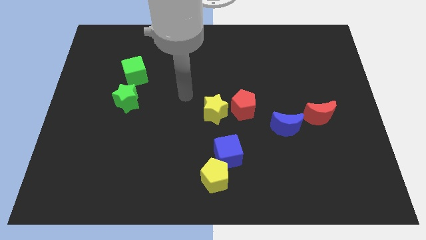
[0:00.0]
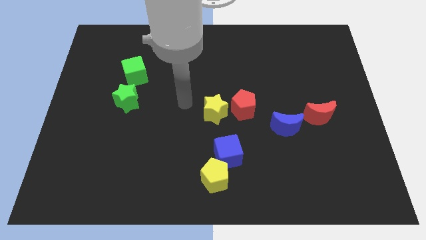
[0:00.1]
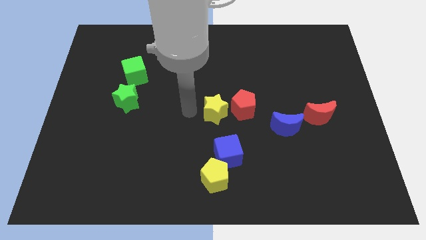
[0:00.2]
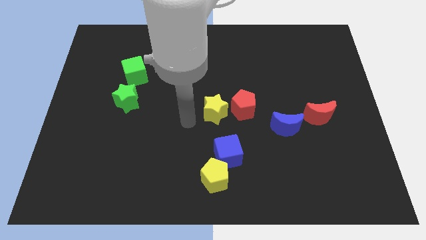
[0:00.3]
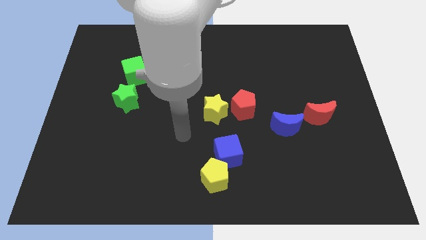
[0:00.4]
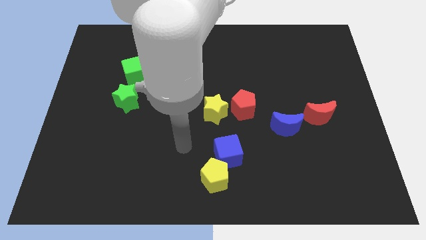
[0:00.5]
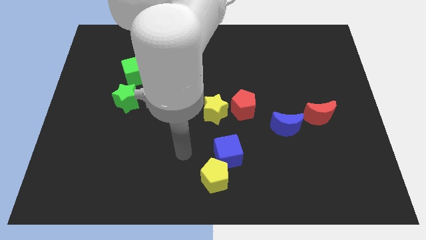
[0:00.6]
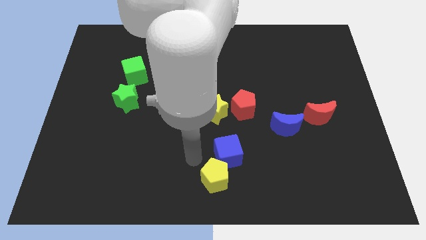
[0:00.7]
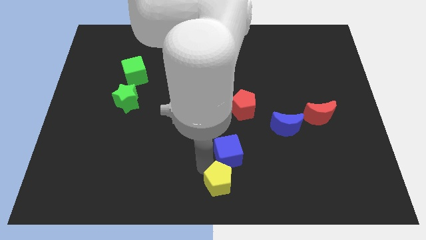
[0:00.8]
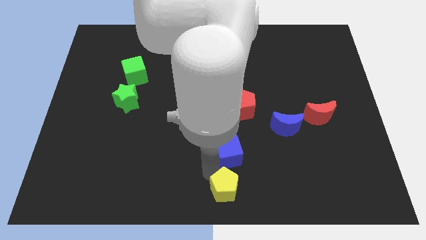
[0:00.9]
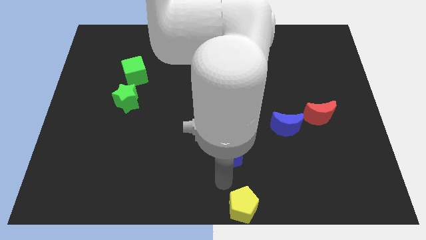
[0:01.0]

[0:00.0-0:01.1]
pull the blue cube apart from the yellow pentagon

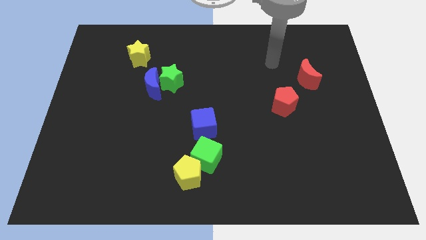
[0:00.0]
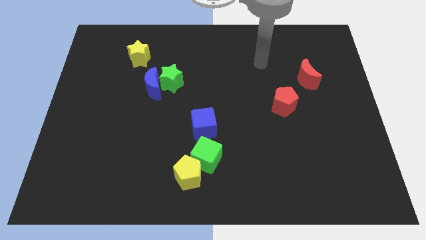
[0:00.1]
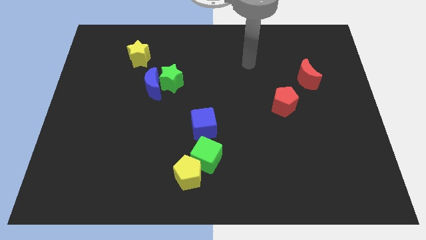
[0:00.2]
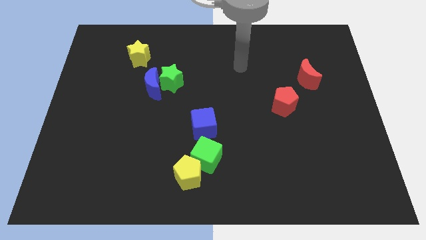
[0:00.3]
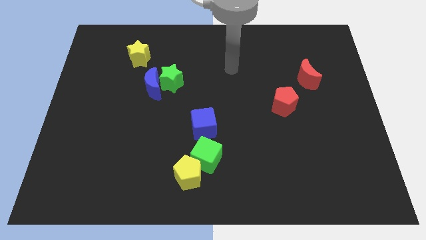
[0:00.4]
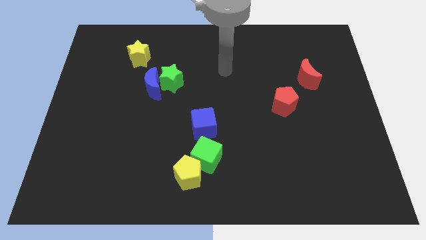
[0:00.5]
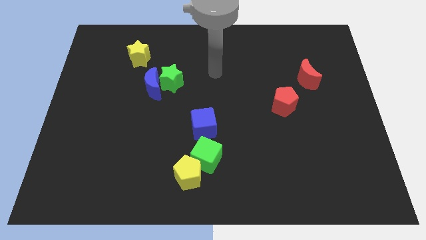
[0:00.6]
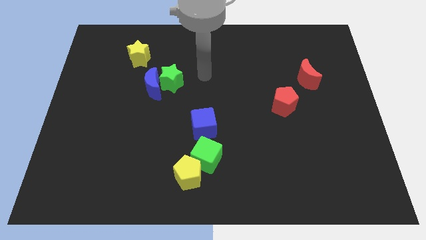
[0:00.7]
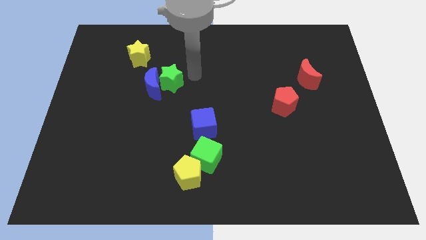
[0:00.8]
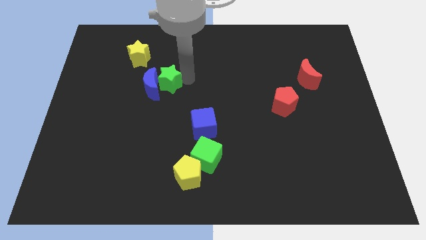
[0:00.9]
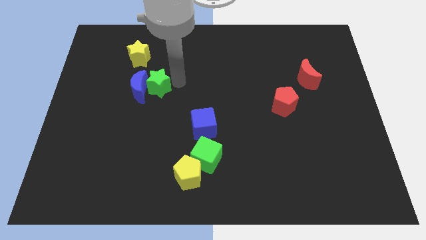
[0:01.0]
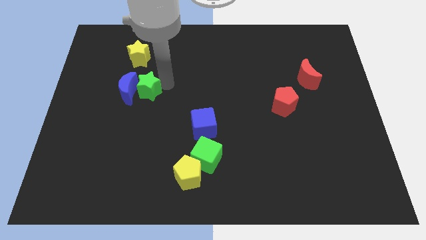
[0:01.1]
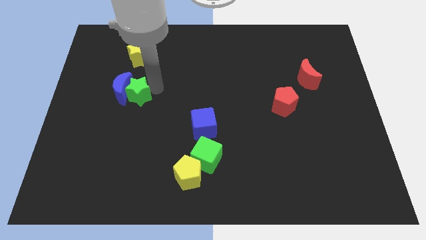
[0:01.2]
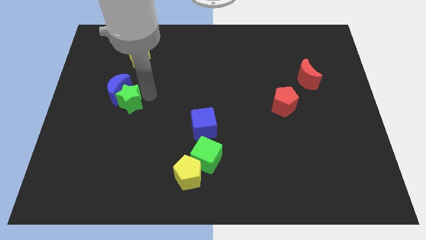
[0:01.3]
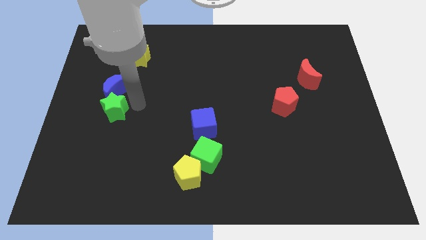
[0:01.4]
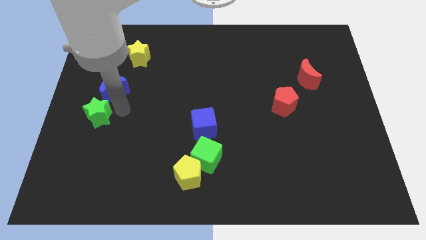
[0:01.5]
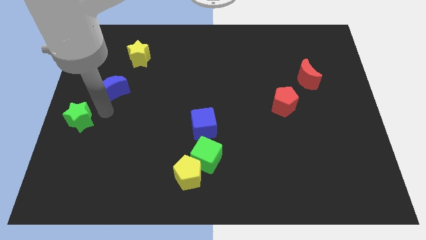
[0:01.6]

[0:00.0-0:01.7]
pull the blue moon apart from the green star

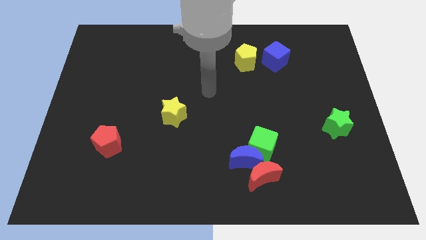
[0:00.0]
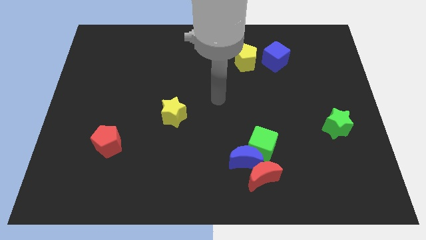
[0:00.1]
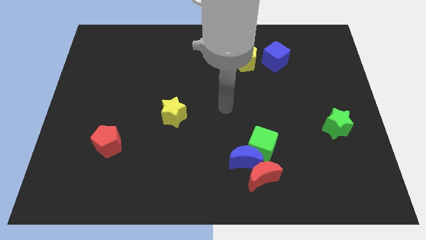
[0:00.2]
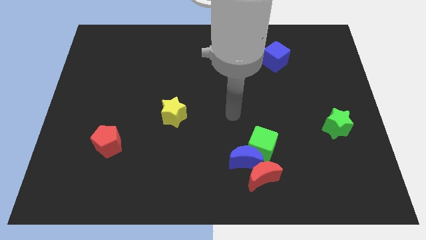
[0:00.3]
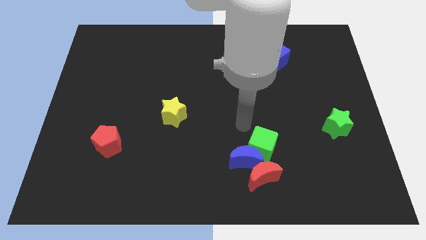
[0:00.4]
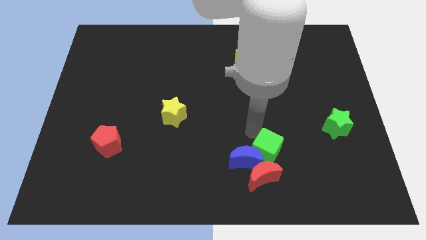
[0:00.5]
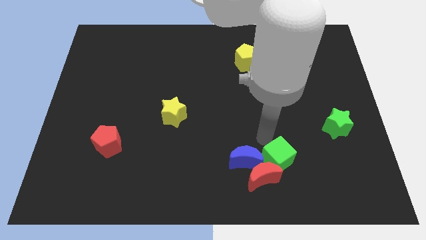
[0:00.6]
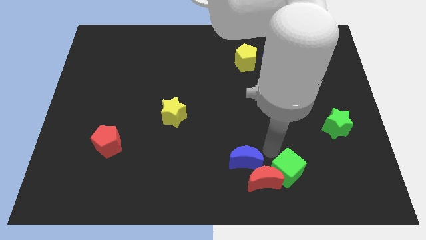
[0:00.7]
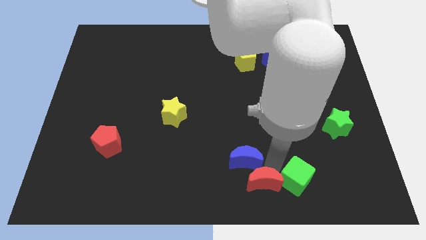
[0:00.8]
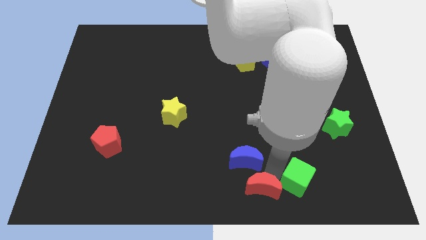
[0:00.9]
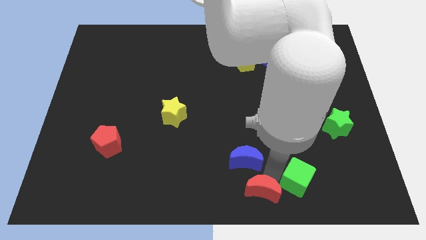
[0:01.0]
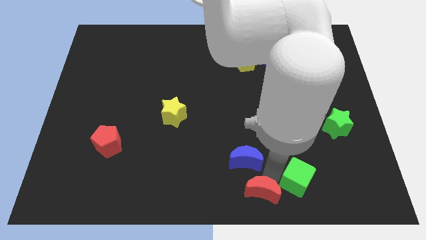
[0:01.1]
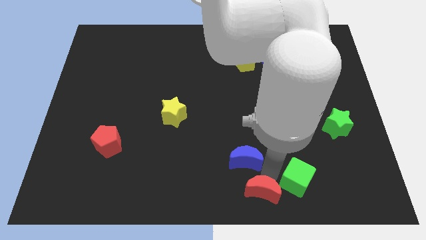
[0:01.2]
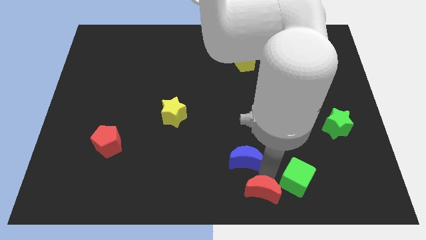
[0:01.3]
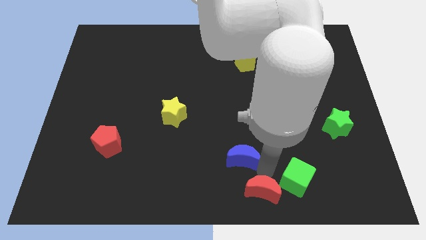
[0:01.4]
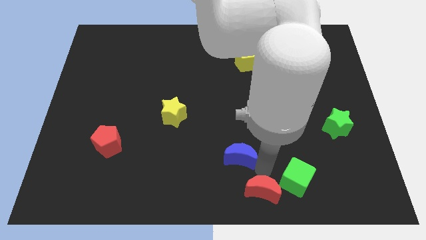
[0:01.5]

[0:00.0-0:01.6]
pull the blue moon apart from the green cube and red moon

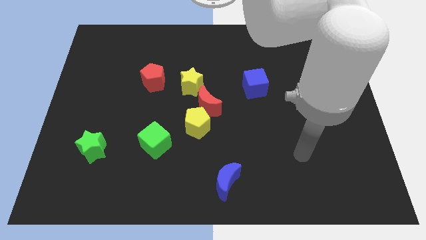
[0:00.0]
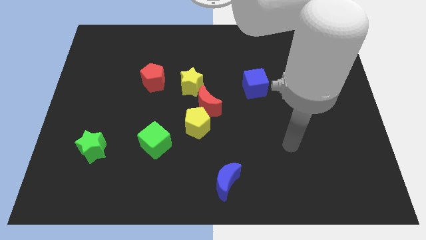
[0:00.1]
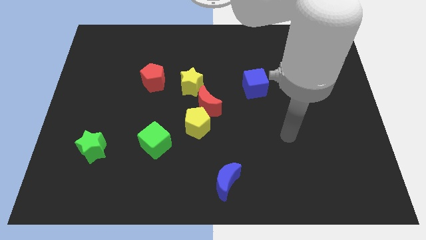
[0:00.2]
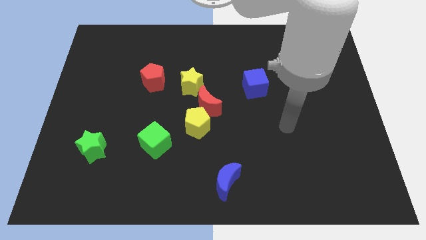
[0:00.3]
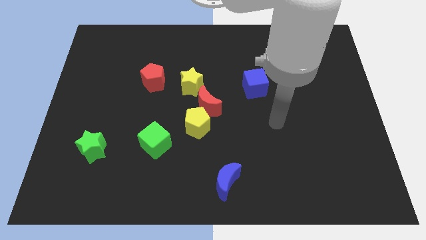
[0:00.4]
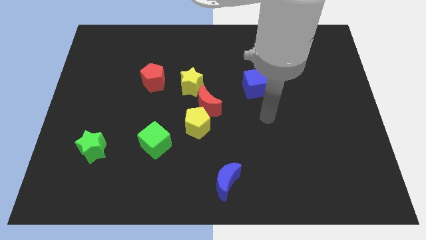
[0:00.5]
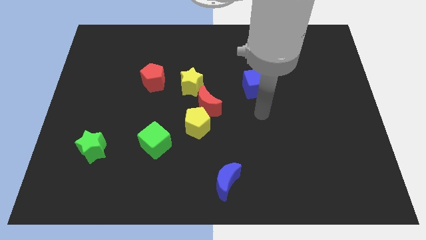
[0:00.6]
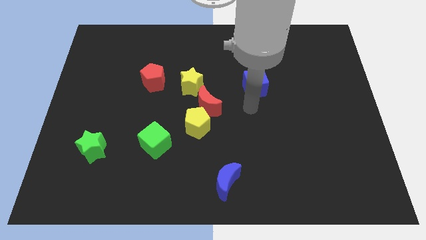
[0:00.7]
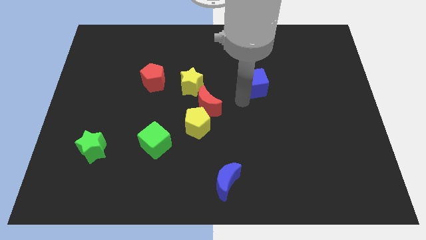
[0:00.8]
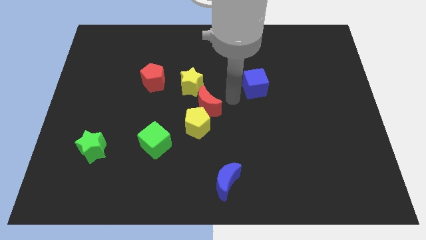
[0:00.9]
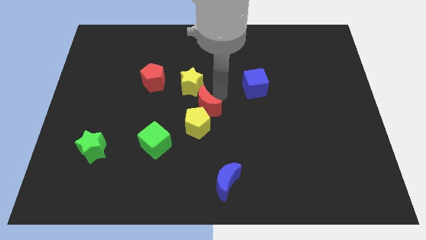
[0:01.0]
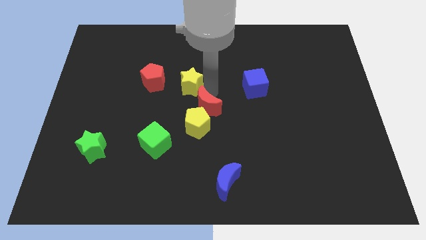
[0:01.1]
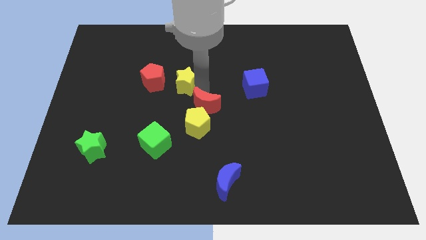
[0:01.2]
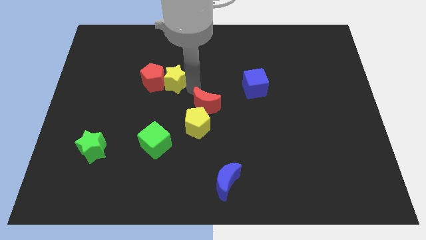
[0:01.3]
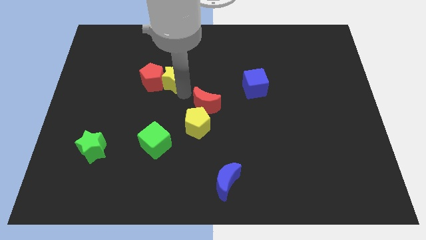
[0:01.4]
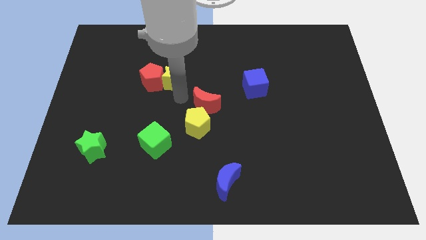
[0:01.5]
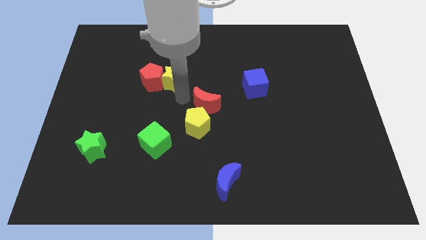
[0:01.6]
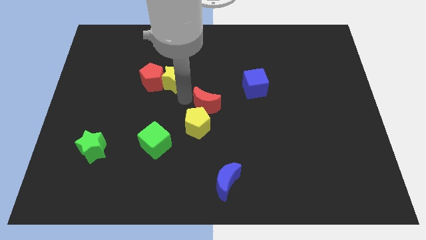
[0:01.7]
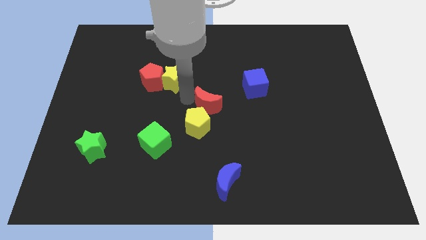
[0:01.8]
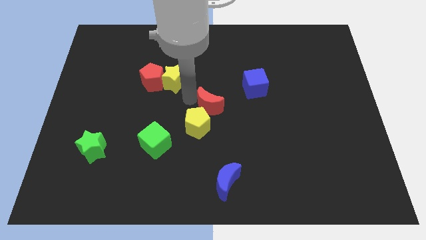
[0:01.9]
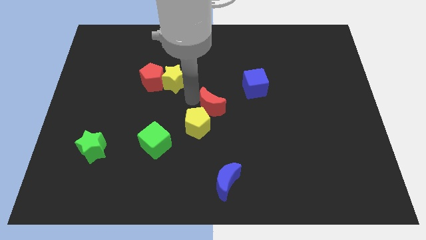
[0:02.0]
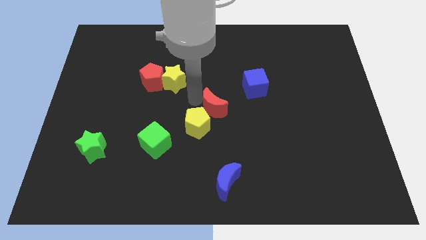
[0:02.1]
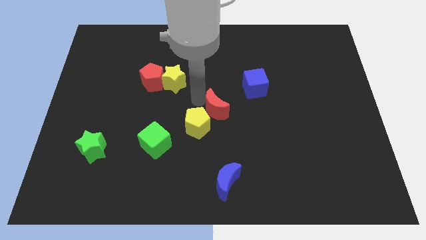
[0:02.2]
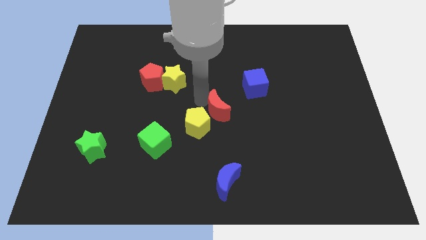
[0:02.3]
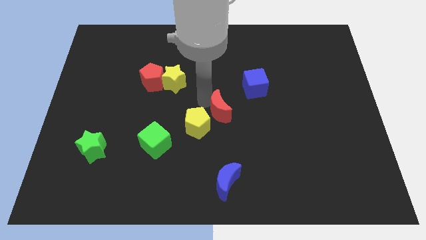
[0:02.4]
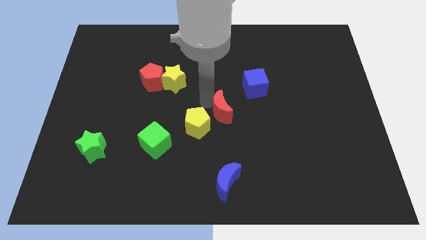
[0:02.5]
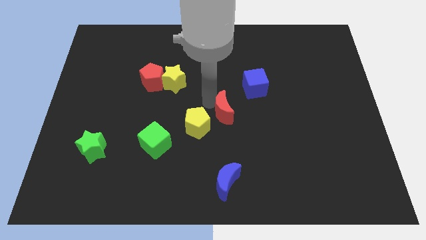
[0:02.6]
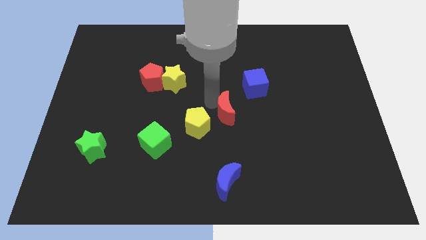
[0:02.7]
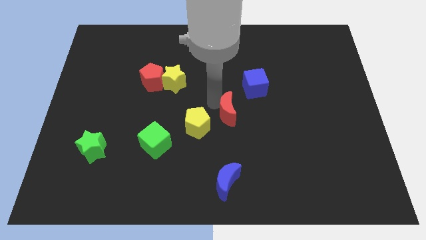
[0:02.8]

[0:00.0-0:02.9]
separate the red moon from the yellow pentagon and yellow star

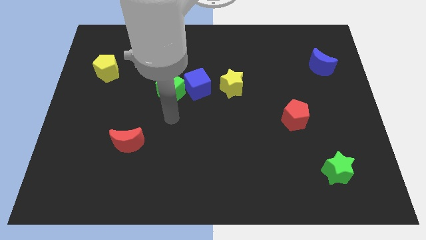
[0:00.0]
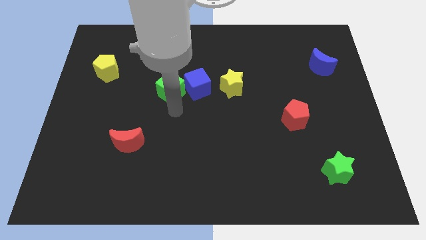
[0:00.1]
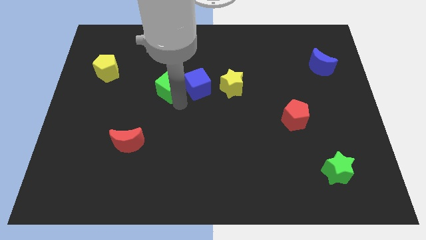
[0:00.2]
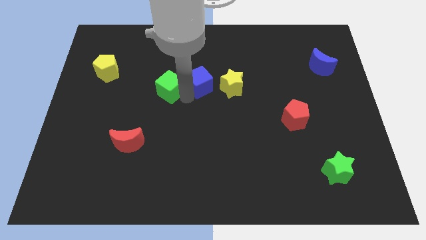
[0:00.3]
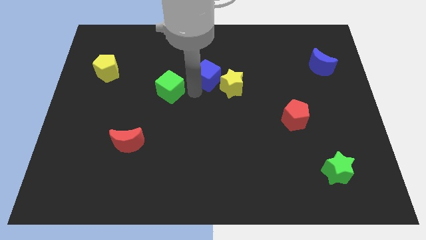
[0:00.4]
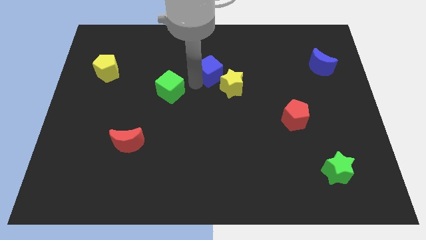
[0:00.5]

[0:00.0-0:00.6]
pull the green cube apart from the blue cube

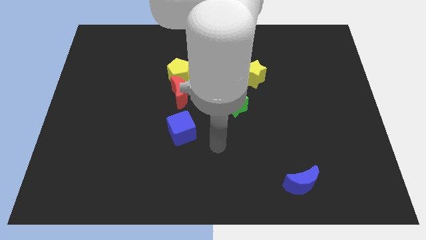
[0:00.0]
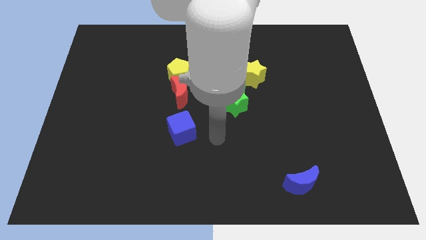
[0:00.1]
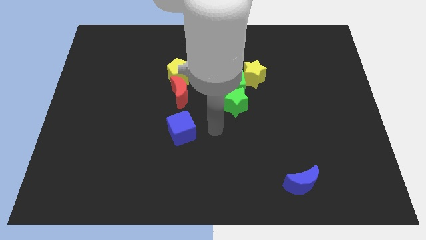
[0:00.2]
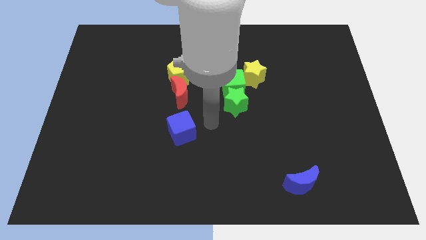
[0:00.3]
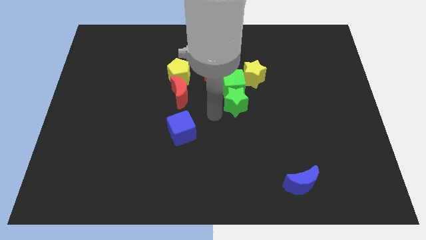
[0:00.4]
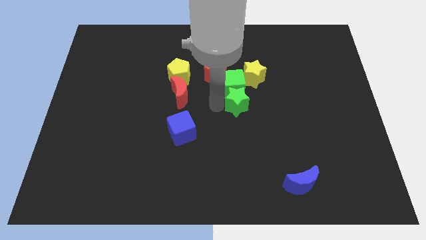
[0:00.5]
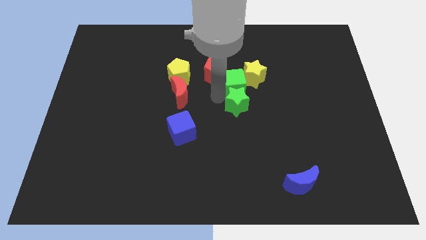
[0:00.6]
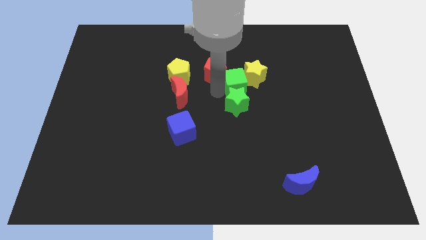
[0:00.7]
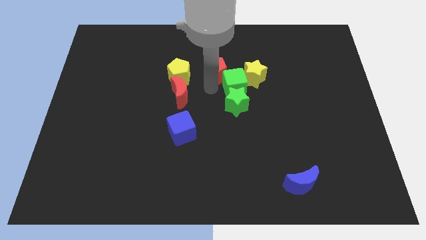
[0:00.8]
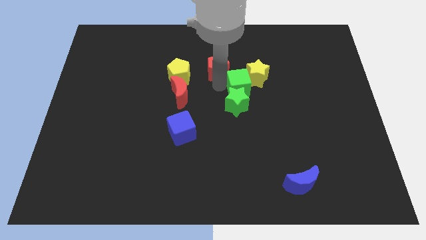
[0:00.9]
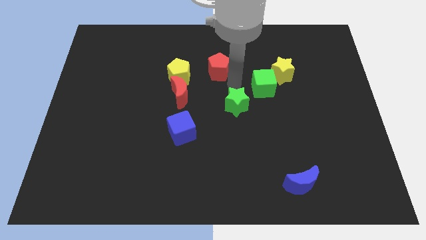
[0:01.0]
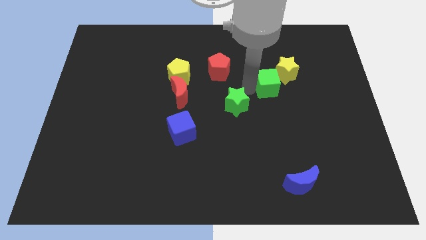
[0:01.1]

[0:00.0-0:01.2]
move the green star away from the green cube
